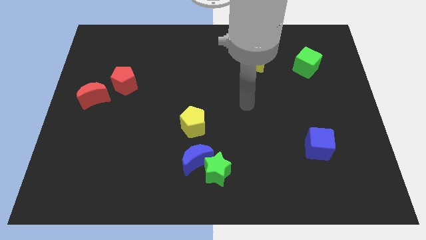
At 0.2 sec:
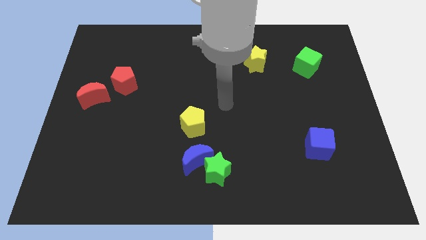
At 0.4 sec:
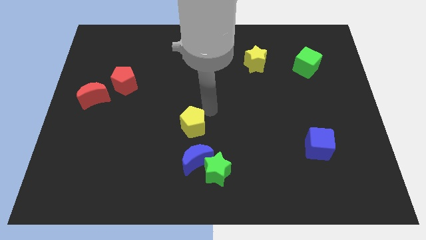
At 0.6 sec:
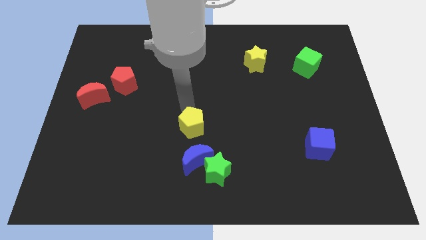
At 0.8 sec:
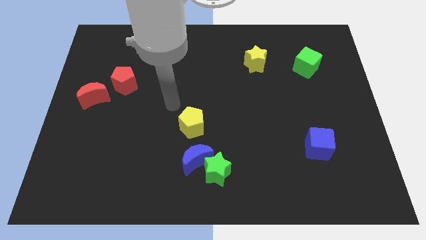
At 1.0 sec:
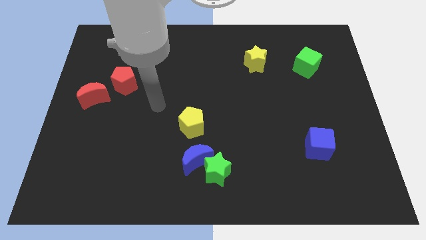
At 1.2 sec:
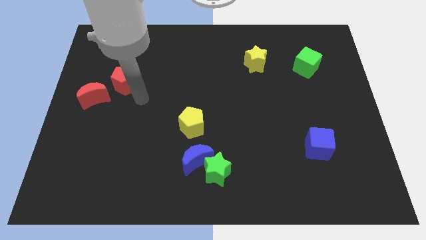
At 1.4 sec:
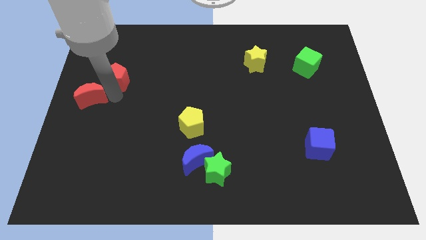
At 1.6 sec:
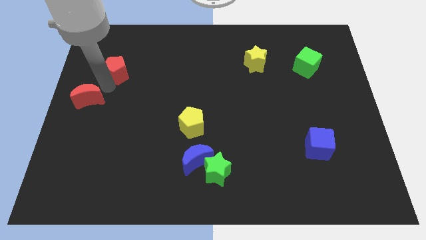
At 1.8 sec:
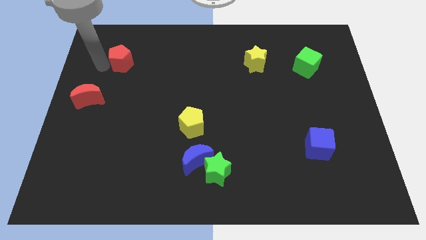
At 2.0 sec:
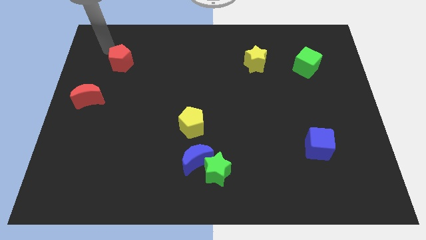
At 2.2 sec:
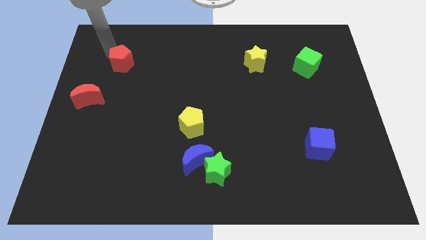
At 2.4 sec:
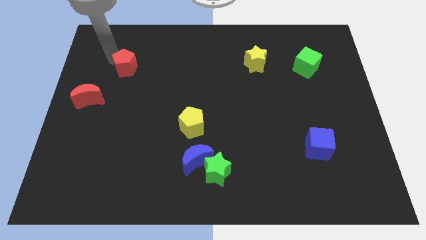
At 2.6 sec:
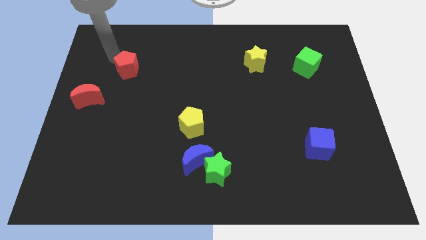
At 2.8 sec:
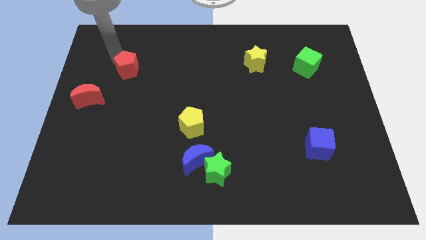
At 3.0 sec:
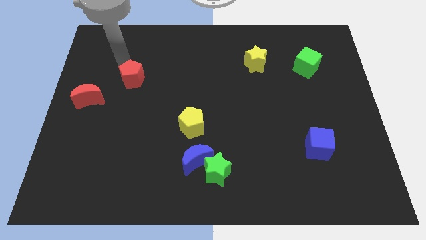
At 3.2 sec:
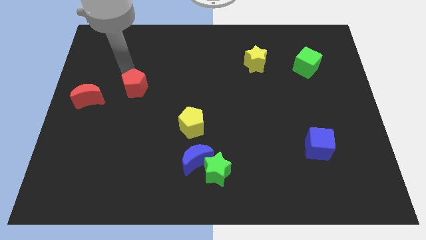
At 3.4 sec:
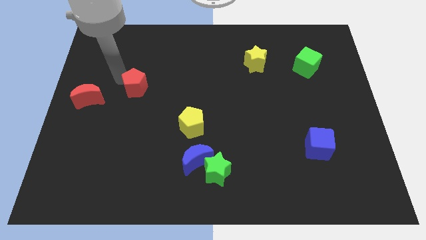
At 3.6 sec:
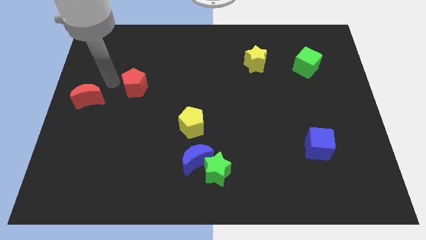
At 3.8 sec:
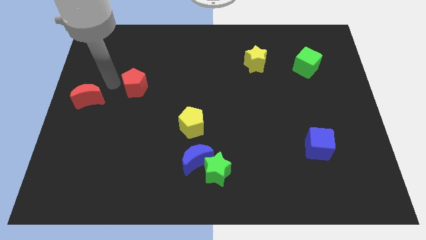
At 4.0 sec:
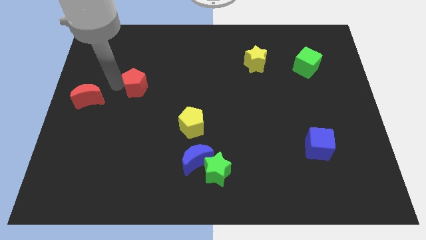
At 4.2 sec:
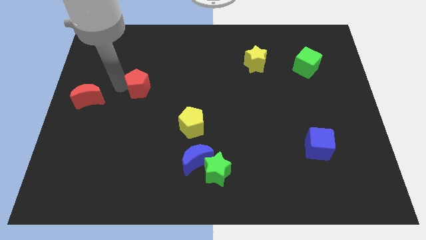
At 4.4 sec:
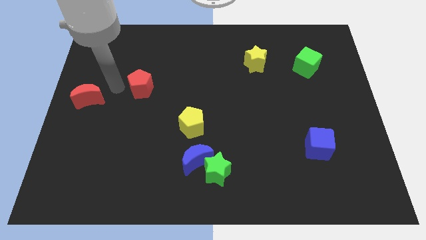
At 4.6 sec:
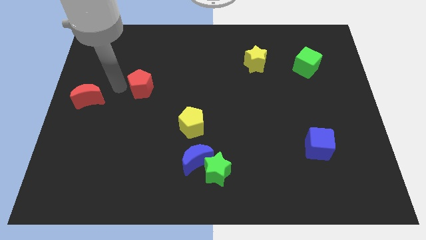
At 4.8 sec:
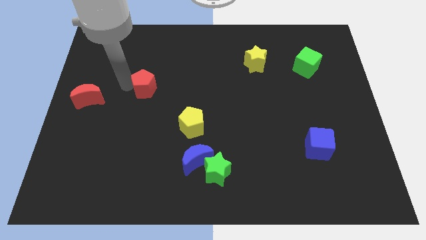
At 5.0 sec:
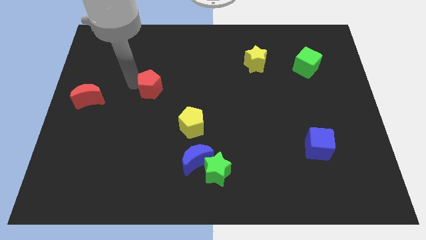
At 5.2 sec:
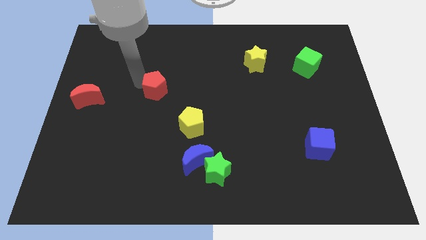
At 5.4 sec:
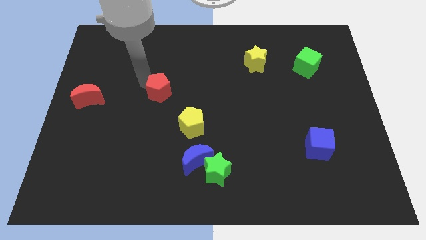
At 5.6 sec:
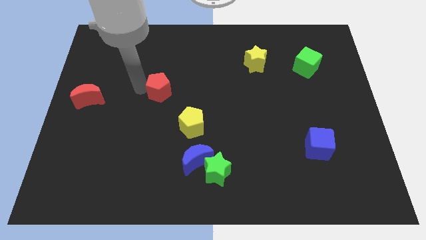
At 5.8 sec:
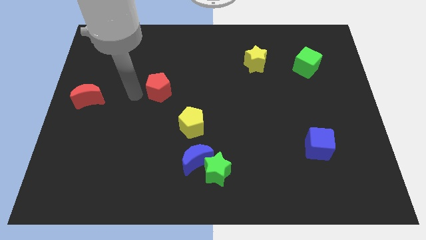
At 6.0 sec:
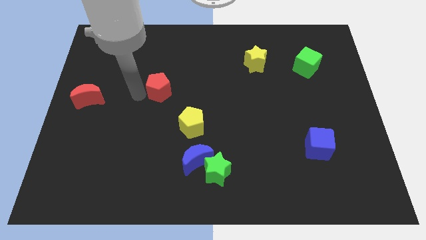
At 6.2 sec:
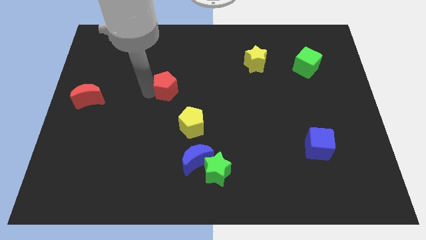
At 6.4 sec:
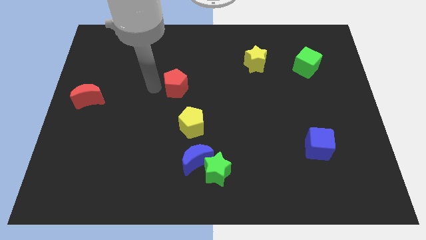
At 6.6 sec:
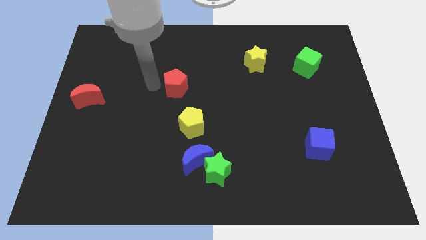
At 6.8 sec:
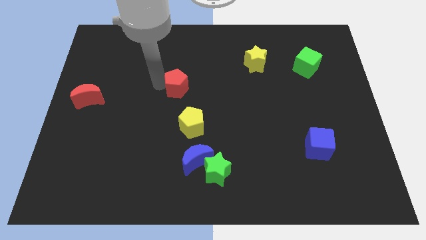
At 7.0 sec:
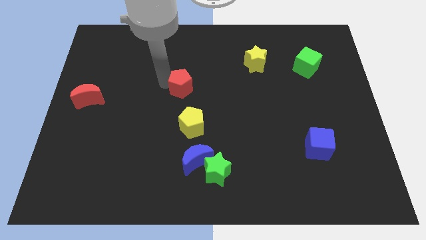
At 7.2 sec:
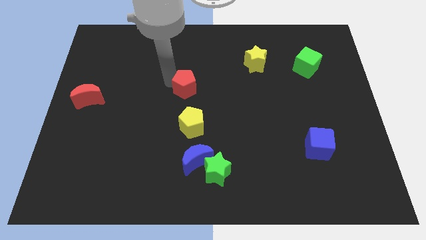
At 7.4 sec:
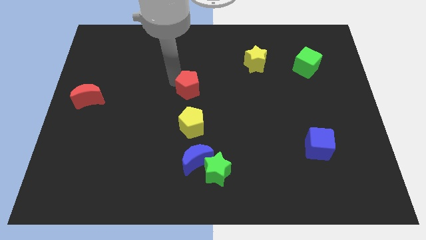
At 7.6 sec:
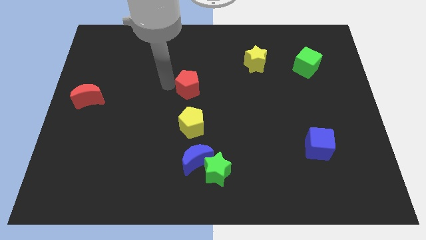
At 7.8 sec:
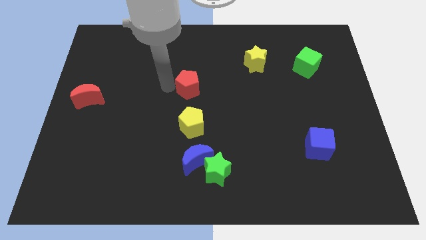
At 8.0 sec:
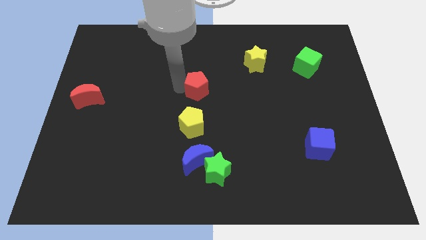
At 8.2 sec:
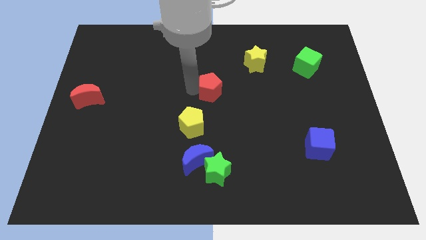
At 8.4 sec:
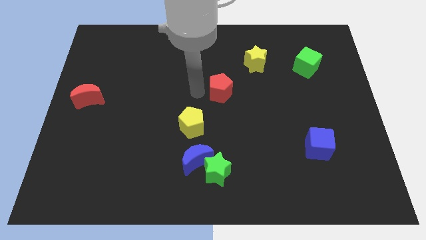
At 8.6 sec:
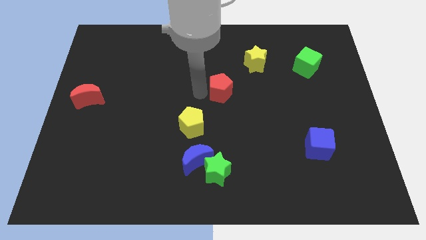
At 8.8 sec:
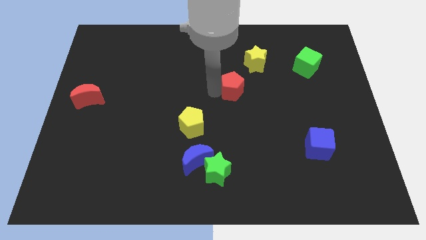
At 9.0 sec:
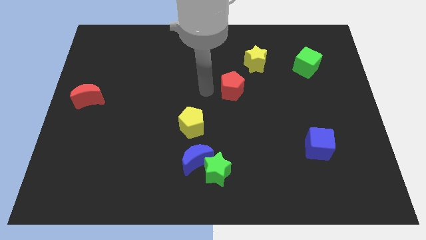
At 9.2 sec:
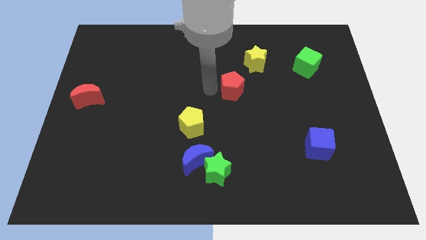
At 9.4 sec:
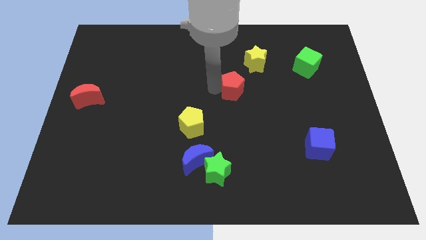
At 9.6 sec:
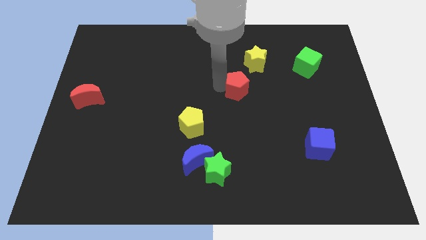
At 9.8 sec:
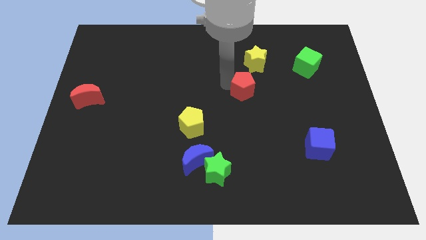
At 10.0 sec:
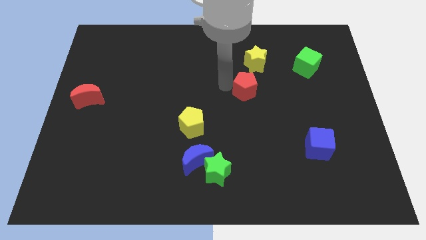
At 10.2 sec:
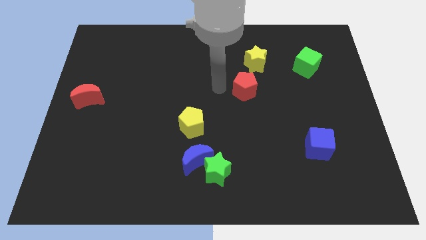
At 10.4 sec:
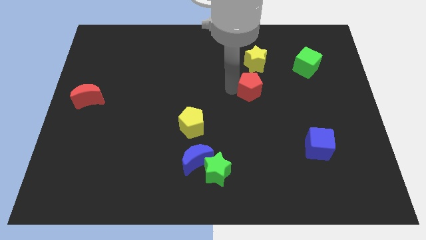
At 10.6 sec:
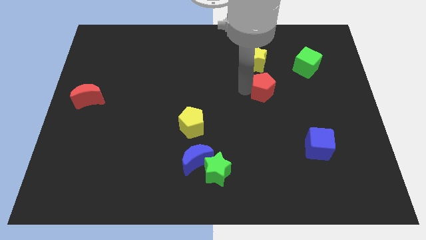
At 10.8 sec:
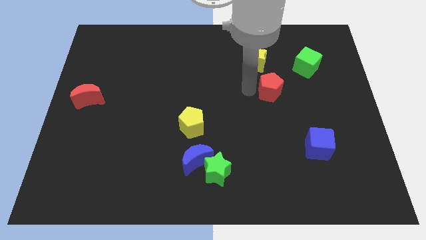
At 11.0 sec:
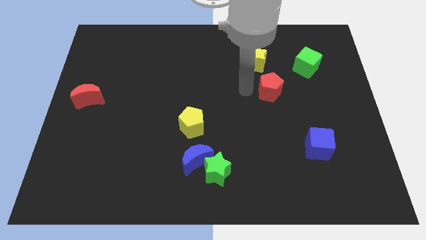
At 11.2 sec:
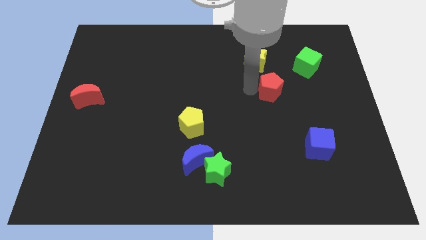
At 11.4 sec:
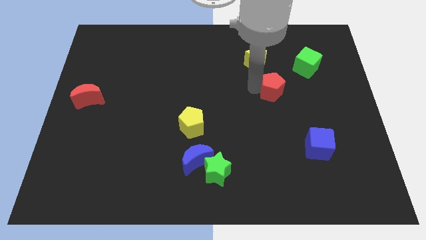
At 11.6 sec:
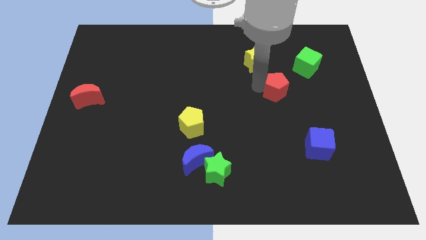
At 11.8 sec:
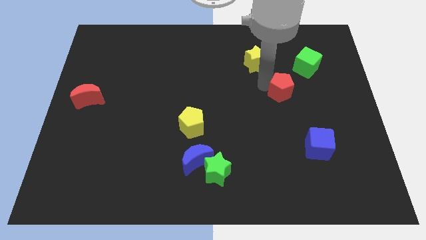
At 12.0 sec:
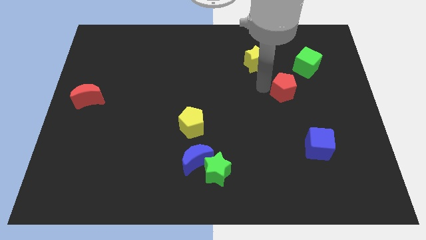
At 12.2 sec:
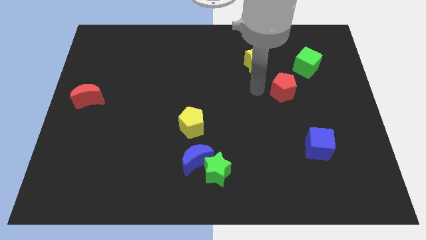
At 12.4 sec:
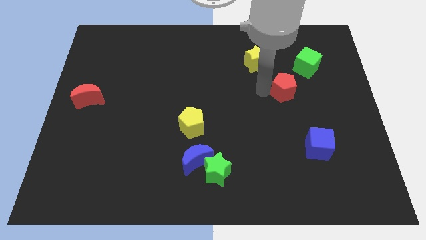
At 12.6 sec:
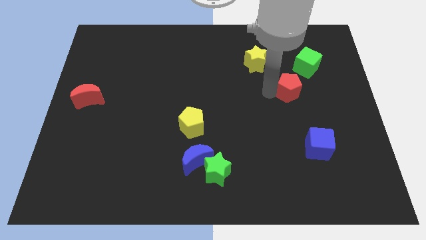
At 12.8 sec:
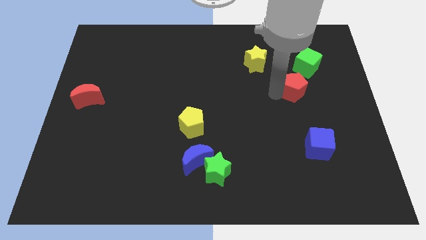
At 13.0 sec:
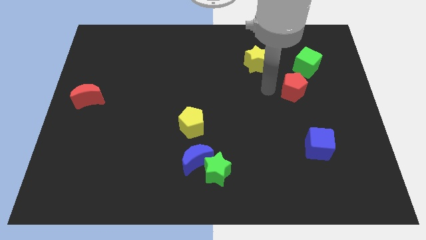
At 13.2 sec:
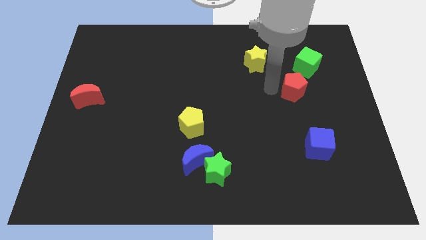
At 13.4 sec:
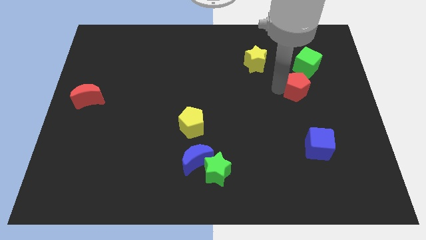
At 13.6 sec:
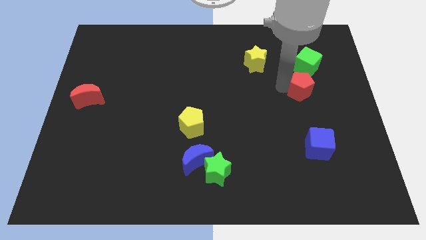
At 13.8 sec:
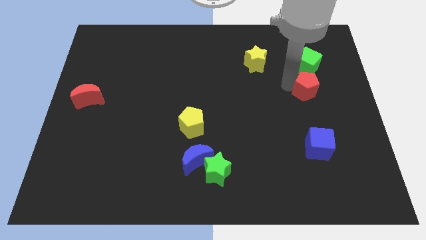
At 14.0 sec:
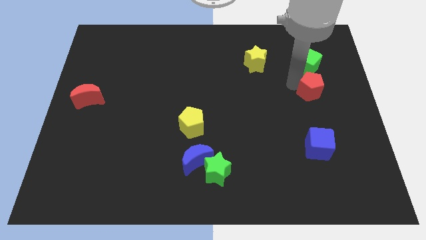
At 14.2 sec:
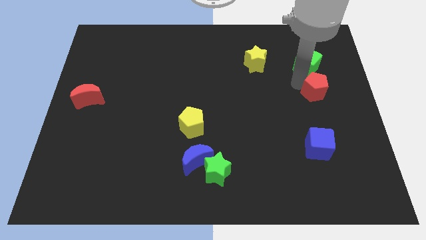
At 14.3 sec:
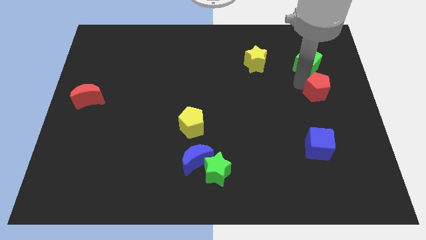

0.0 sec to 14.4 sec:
slide the red pentagon to the right side

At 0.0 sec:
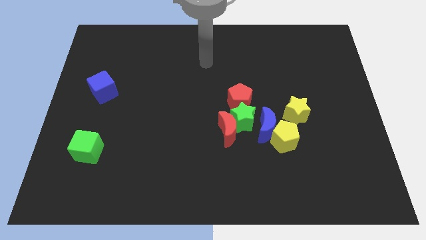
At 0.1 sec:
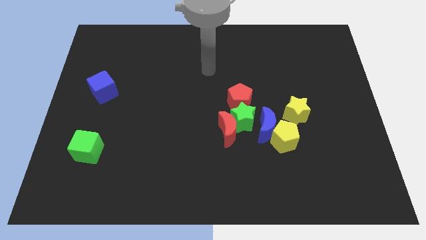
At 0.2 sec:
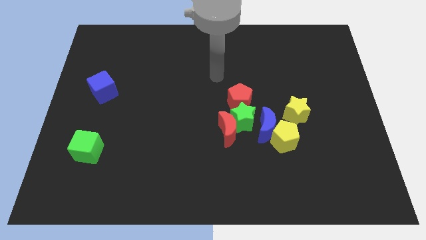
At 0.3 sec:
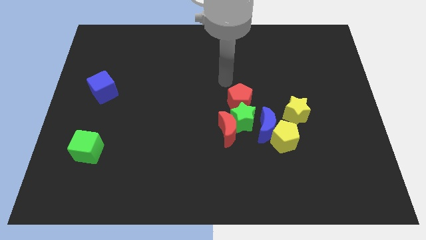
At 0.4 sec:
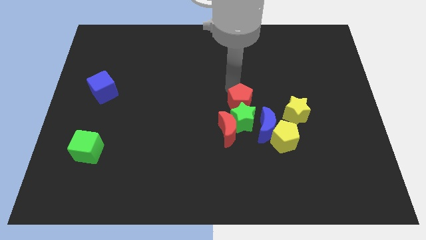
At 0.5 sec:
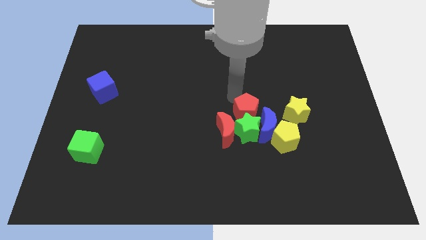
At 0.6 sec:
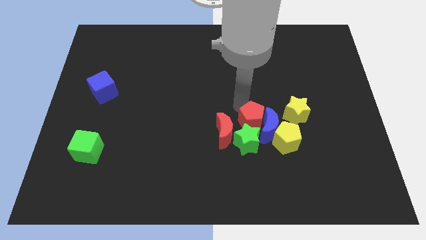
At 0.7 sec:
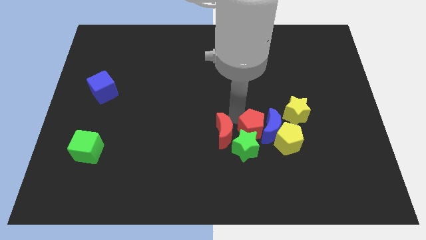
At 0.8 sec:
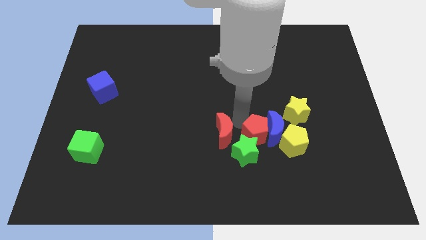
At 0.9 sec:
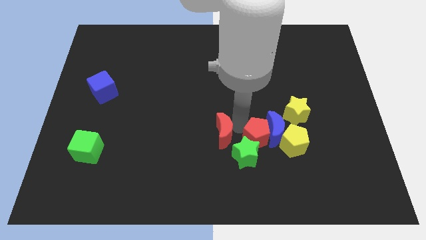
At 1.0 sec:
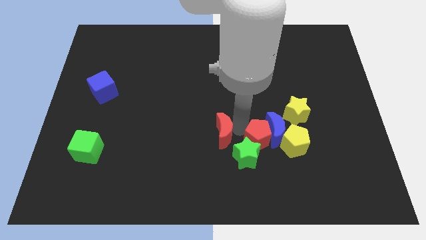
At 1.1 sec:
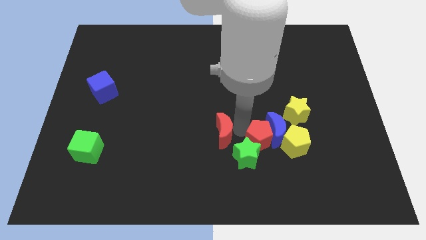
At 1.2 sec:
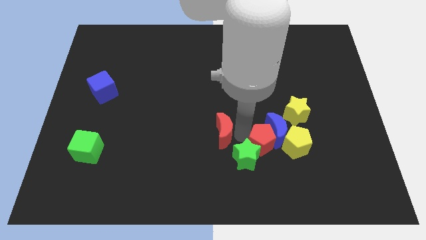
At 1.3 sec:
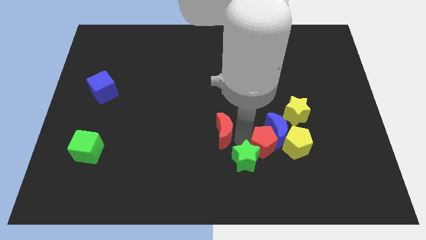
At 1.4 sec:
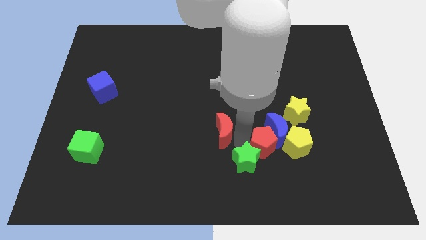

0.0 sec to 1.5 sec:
move the green star to the bottom side
